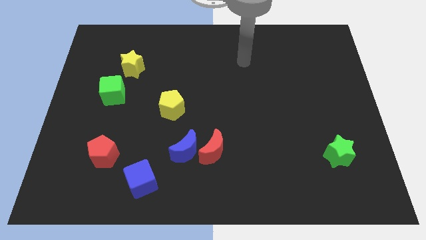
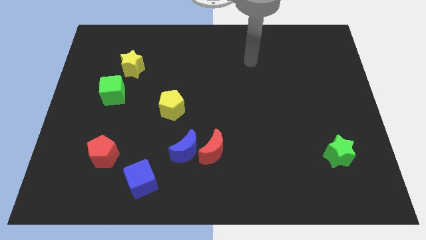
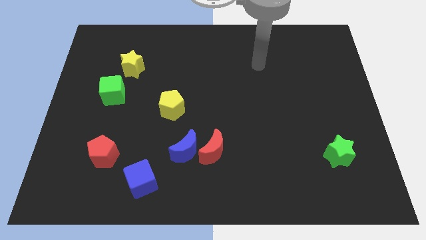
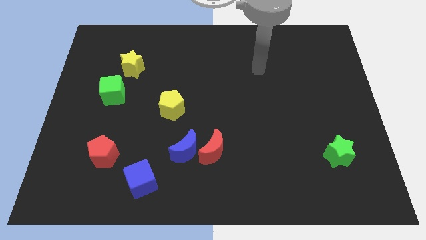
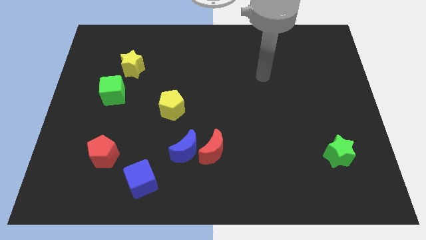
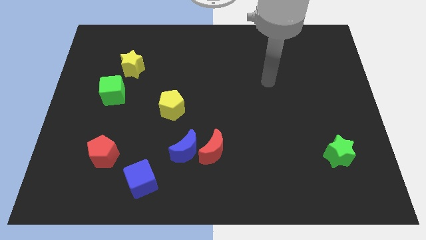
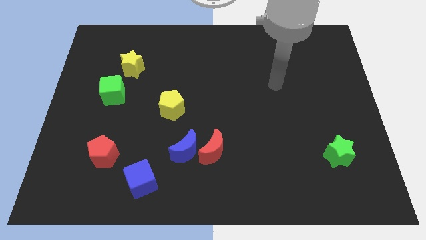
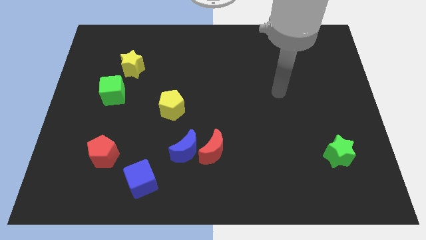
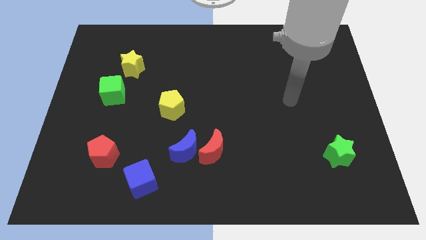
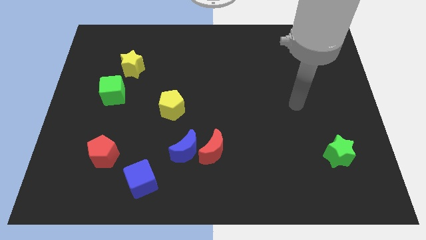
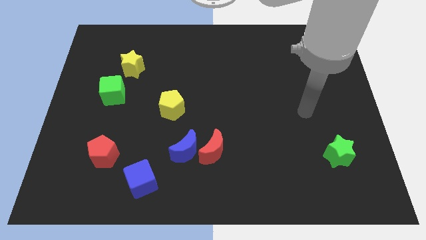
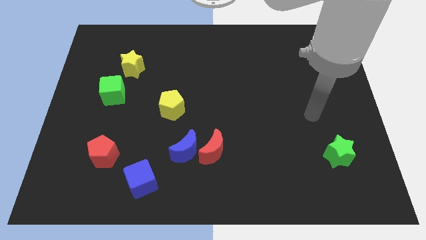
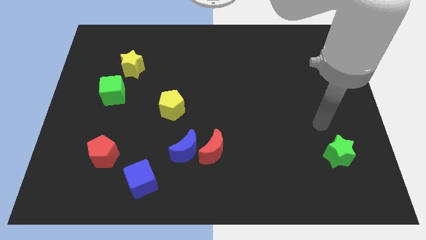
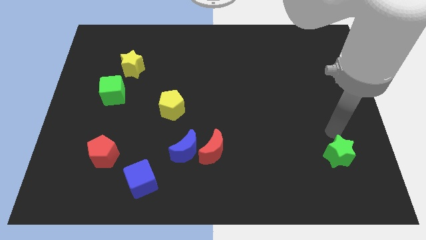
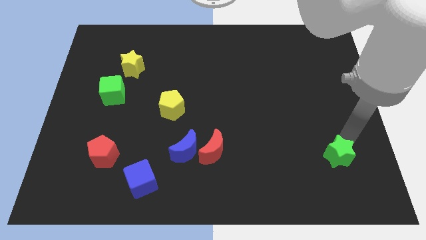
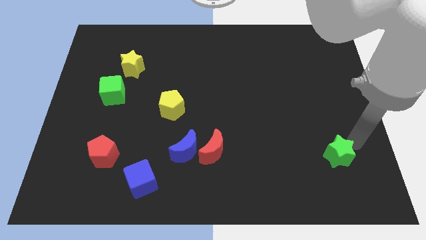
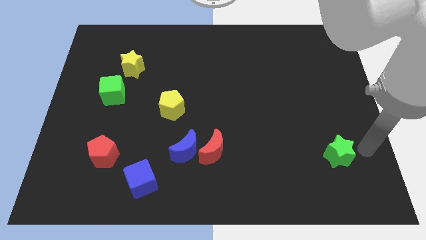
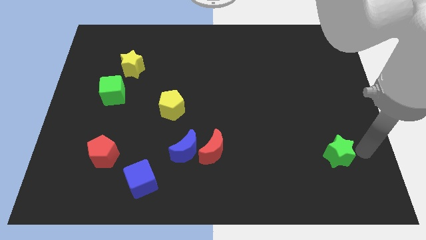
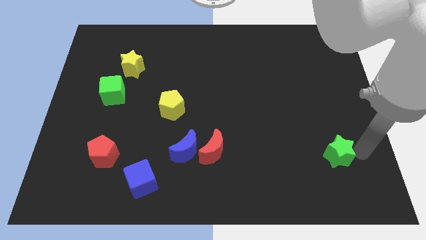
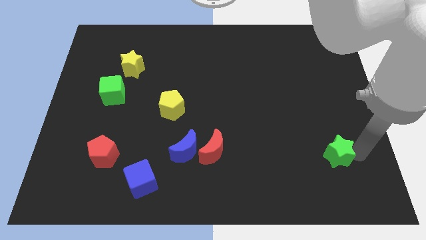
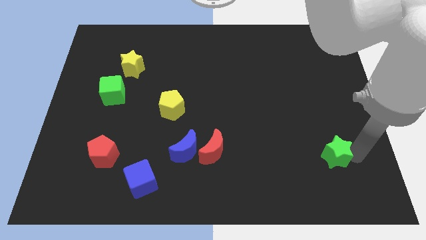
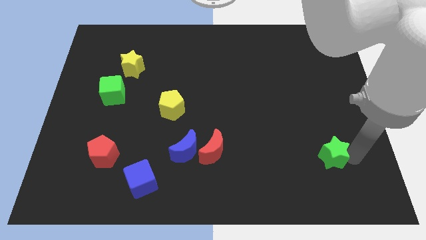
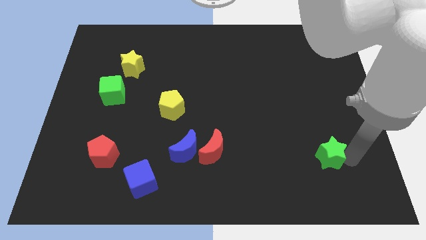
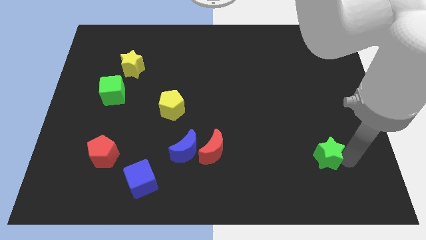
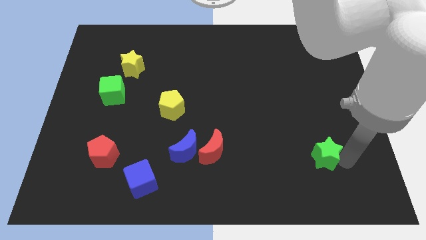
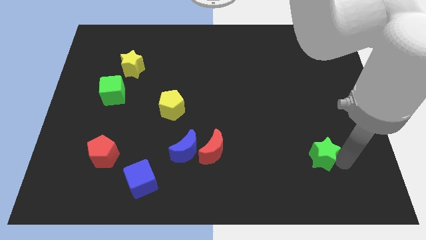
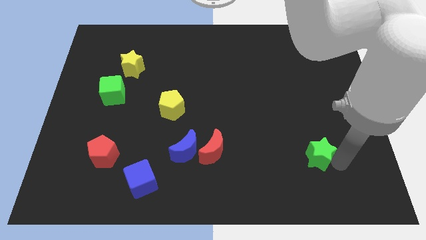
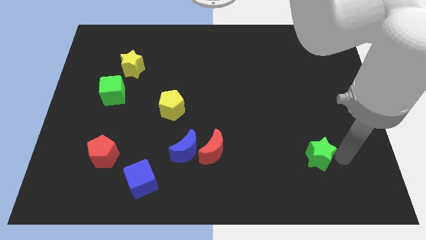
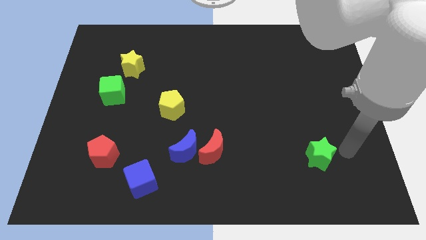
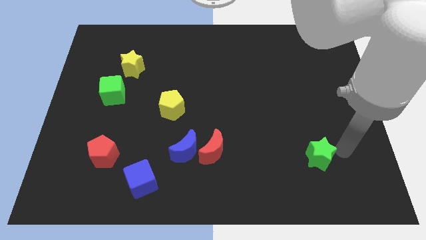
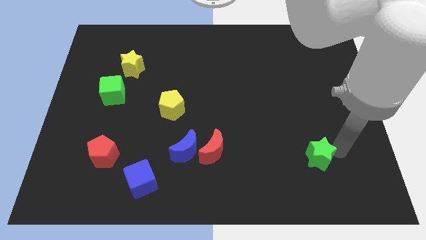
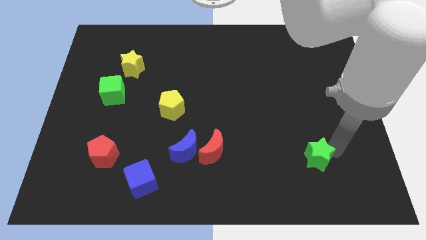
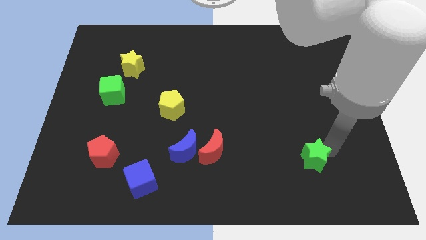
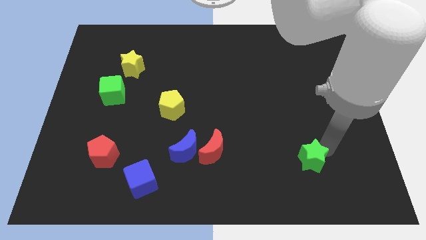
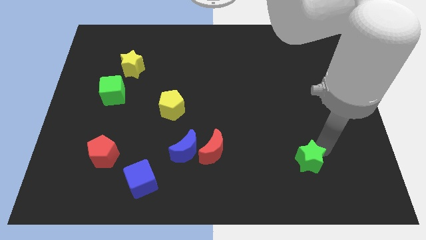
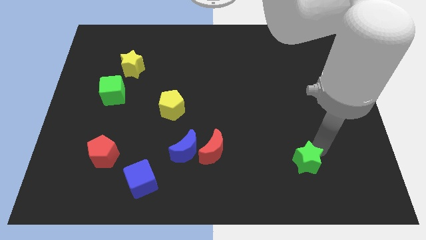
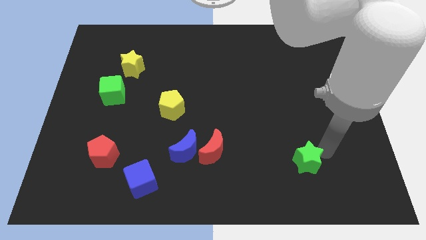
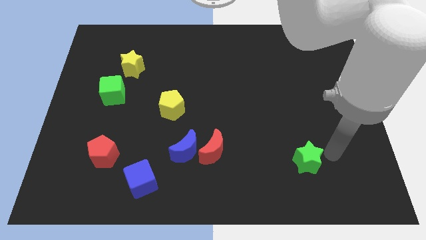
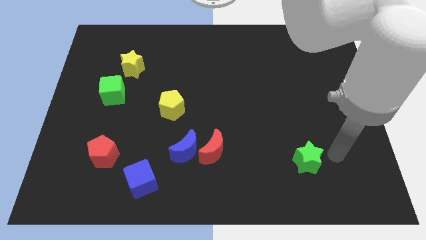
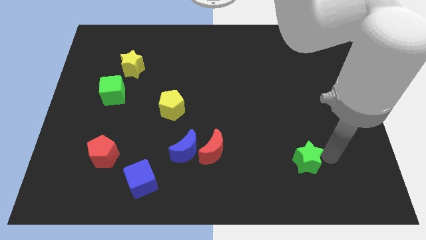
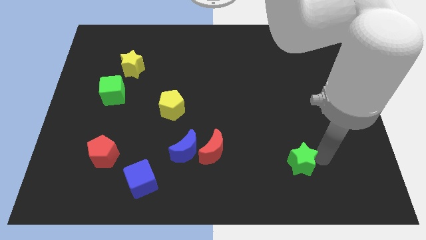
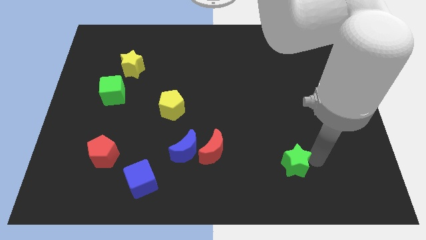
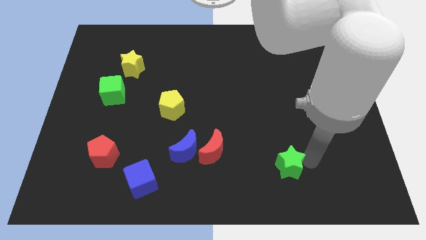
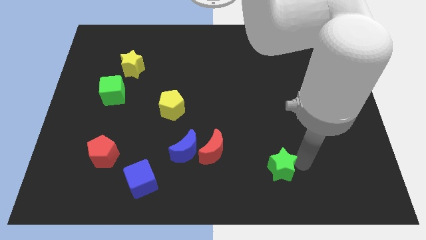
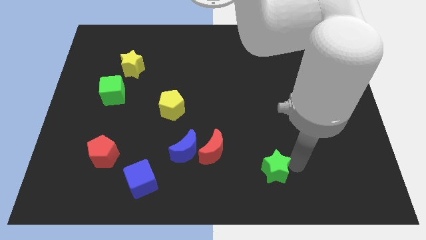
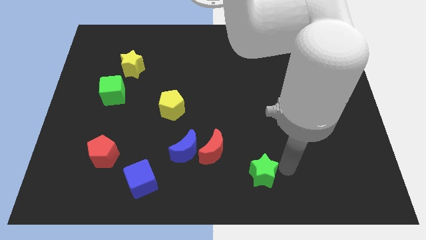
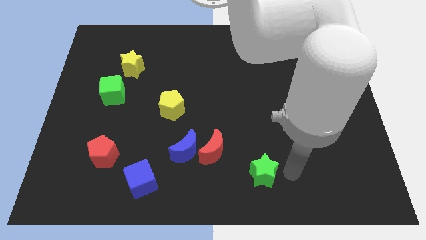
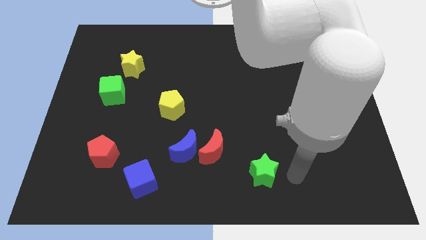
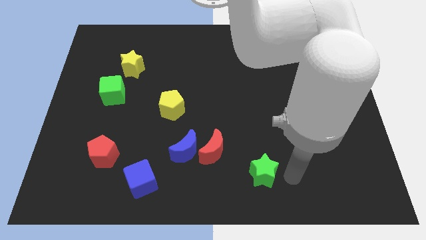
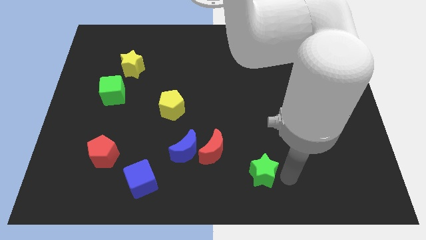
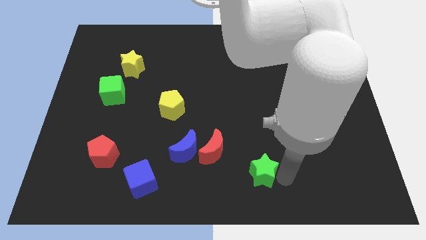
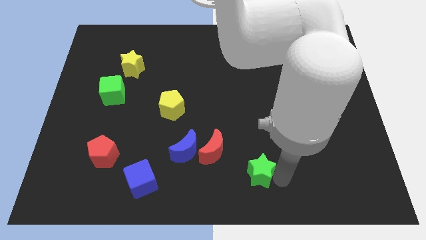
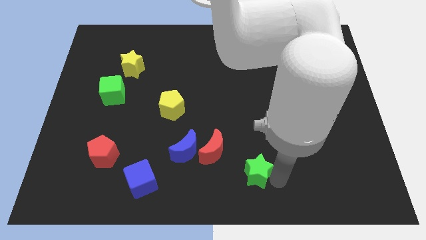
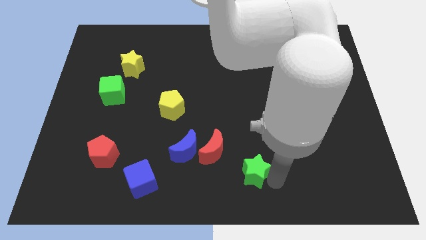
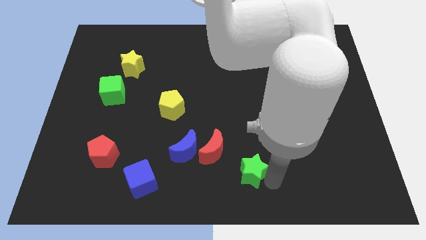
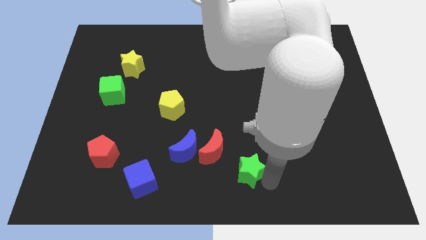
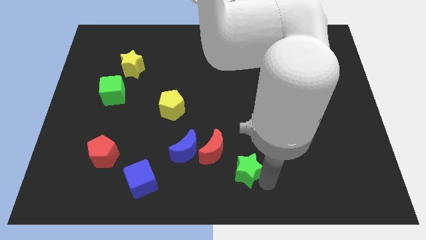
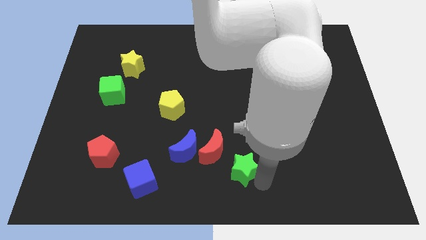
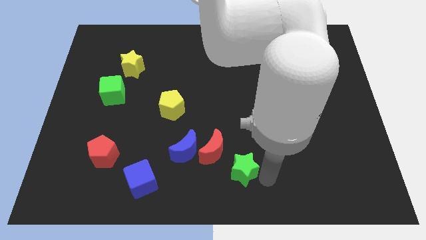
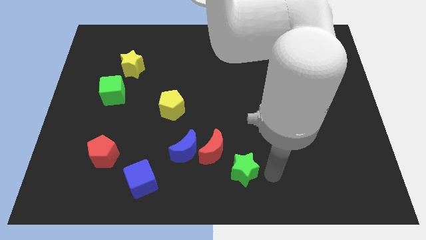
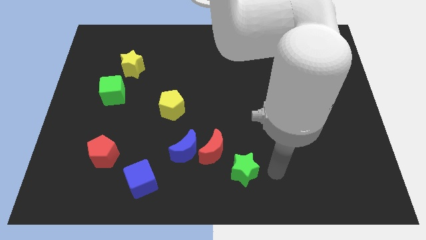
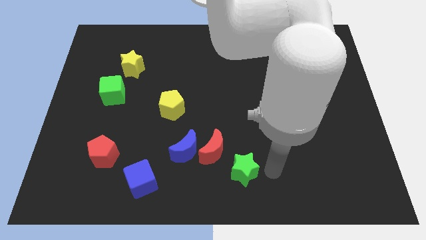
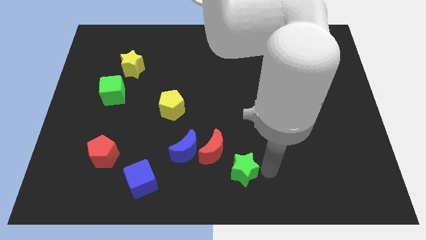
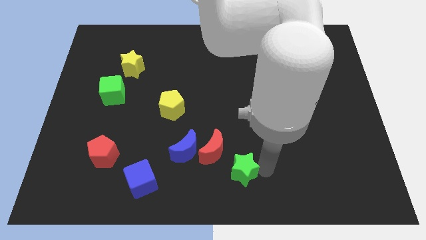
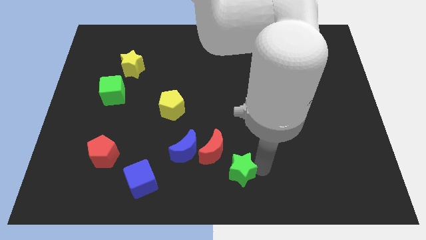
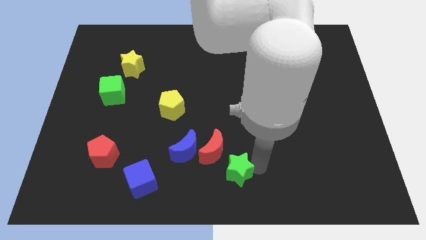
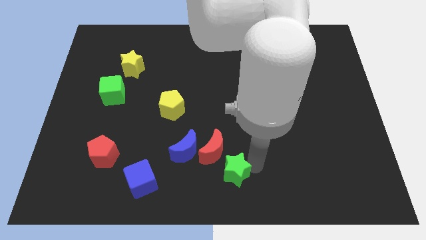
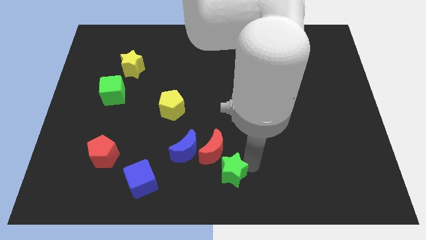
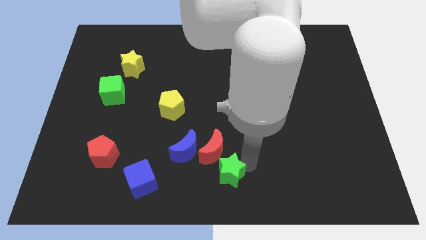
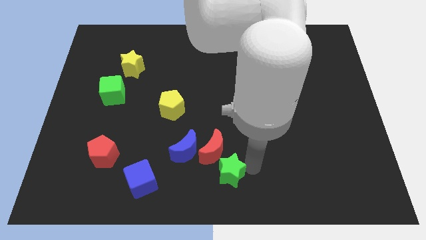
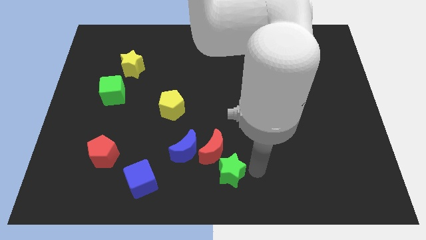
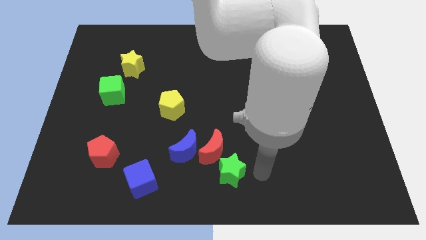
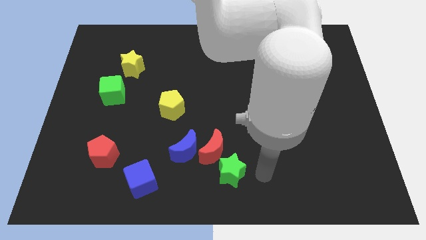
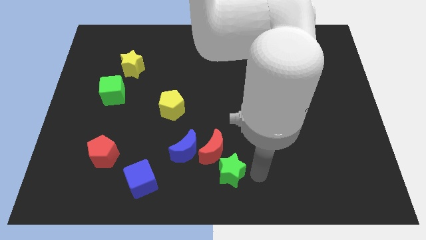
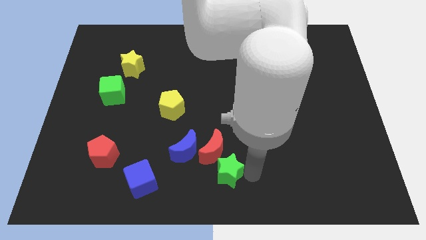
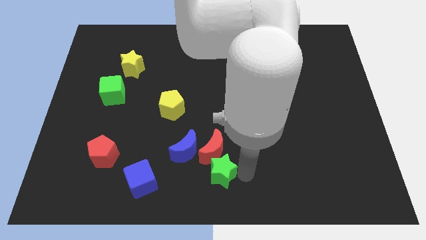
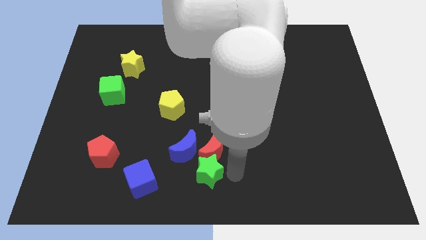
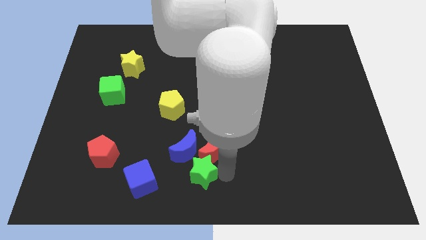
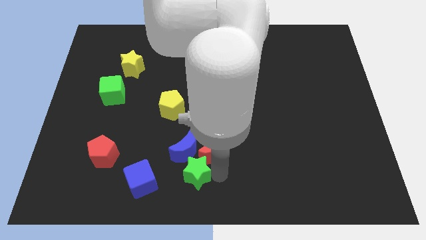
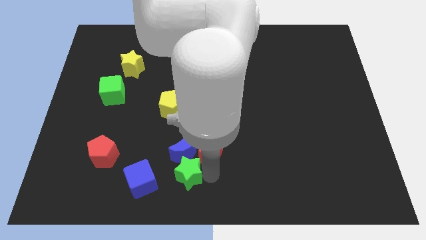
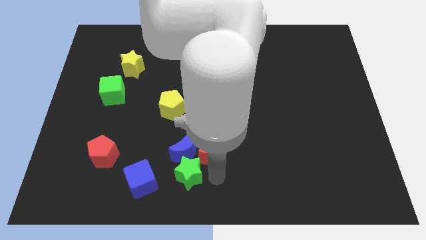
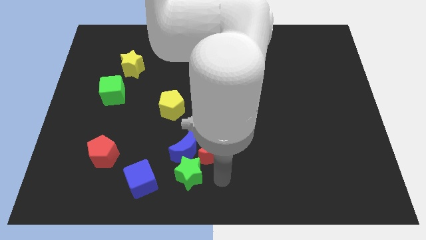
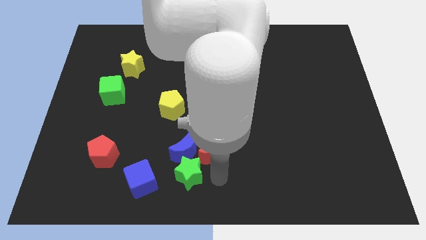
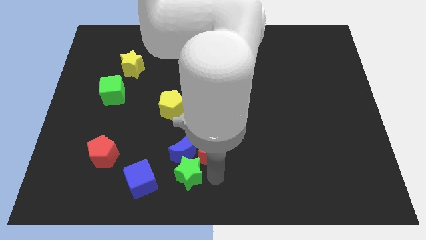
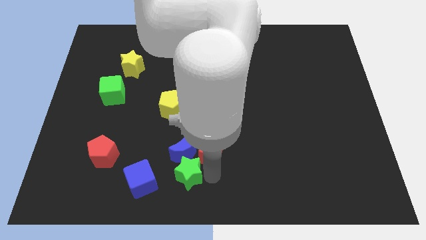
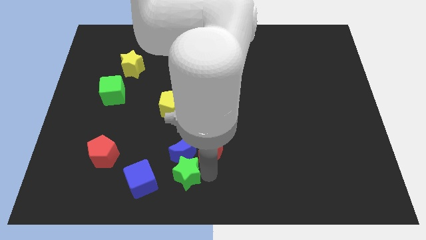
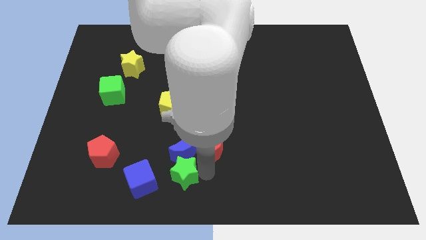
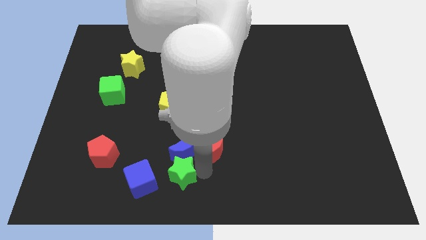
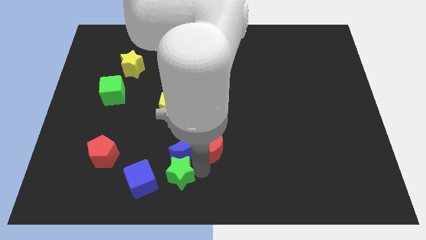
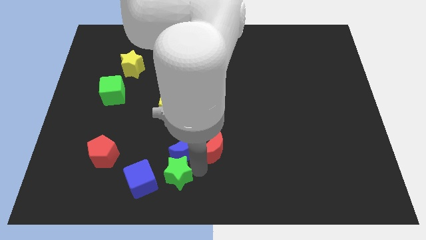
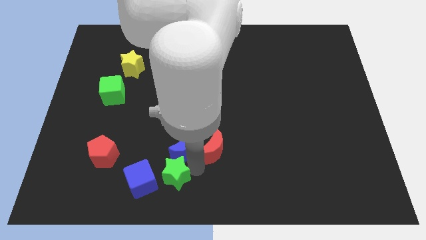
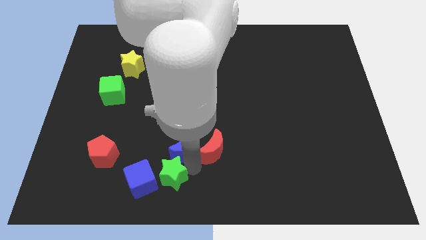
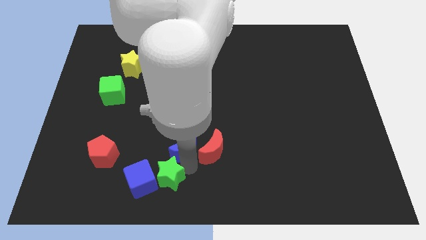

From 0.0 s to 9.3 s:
slide the green star close to the blue cube
